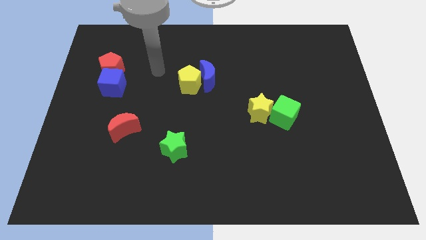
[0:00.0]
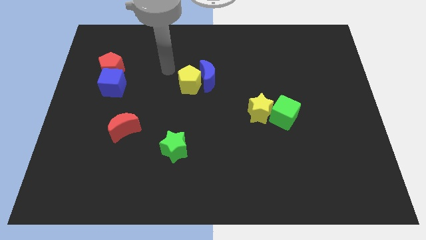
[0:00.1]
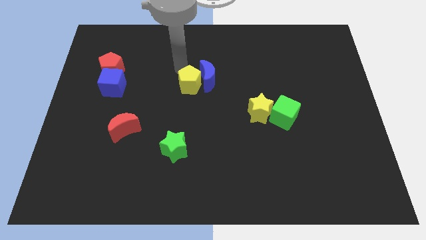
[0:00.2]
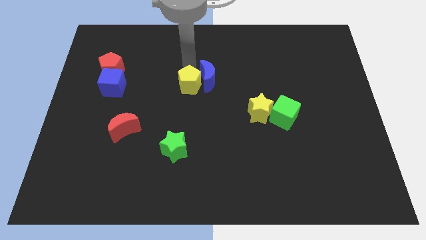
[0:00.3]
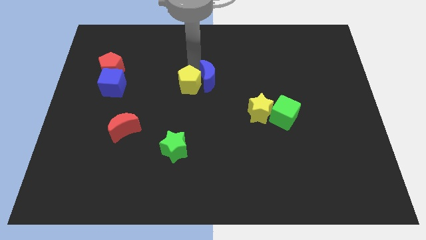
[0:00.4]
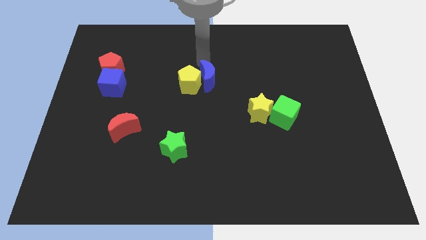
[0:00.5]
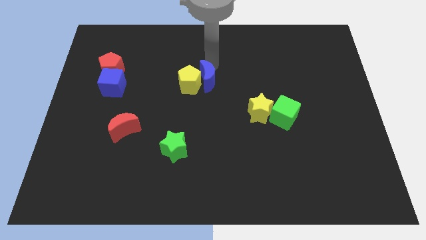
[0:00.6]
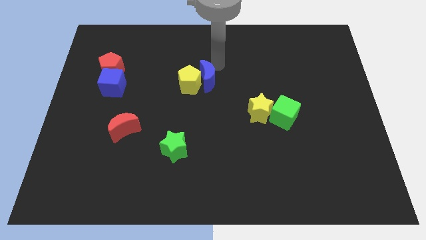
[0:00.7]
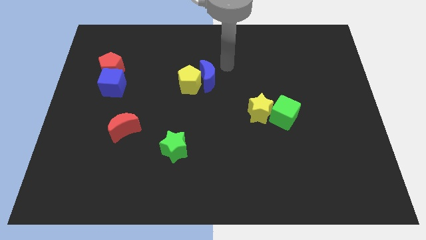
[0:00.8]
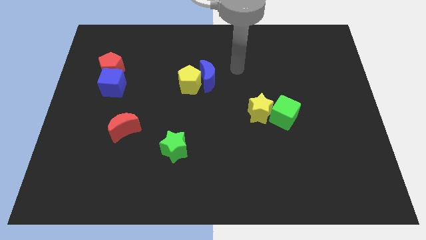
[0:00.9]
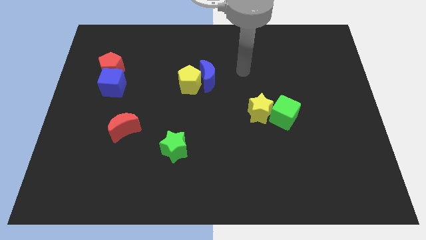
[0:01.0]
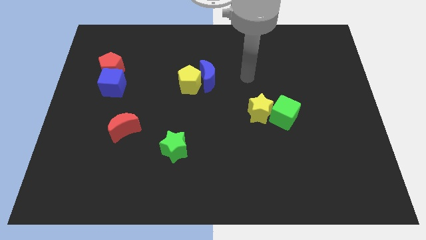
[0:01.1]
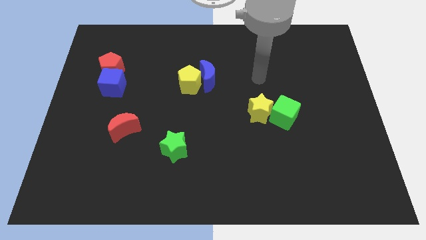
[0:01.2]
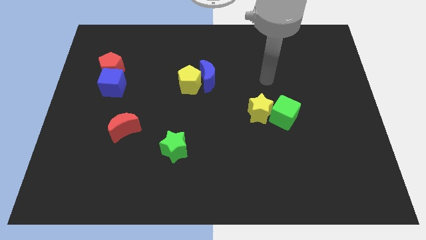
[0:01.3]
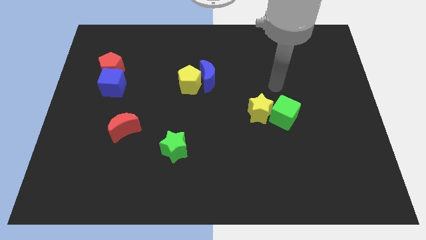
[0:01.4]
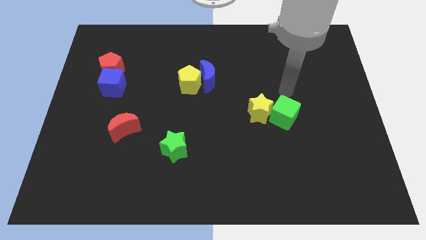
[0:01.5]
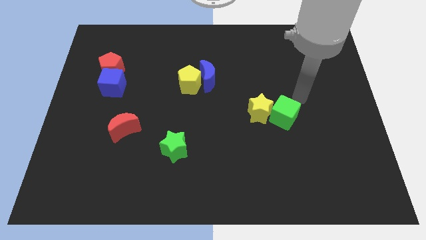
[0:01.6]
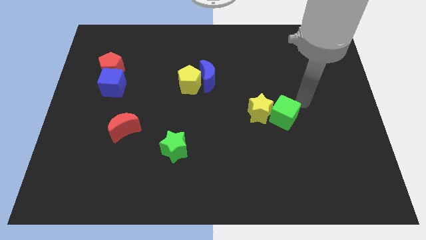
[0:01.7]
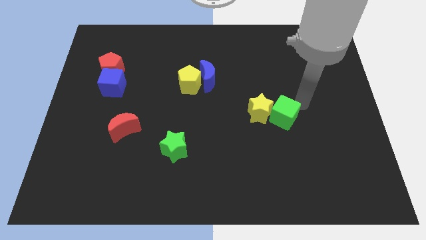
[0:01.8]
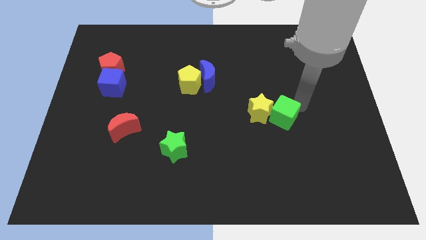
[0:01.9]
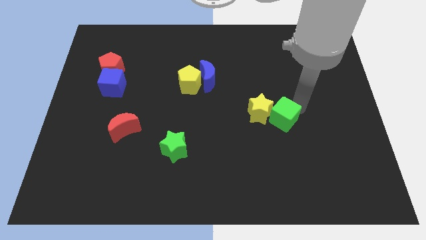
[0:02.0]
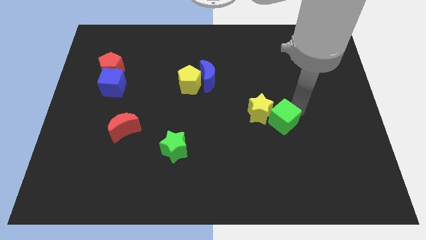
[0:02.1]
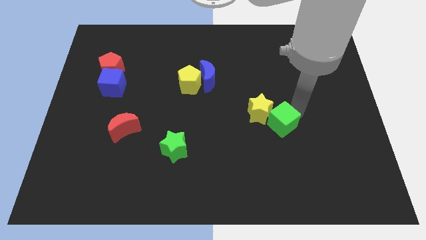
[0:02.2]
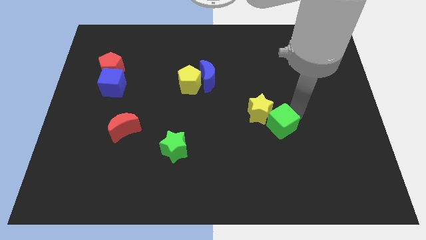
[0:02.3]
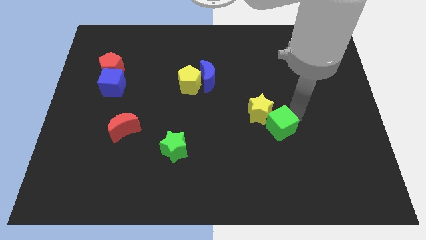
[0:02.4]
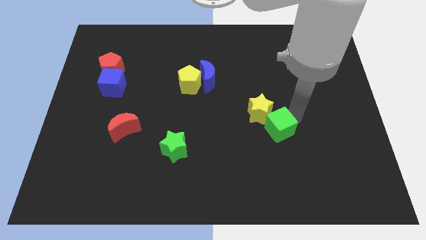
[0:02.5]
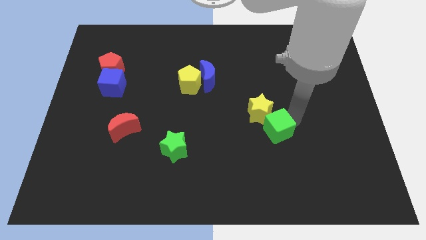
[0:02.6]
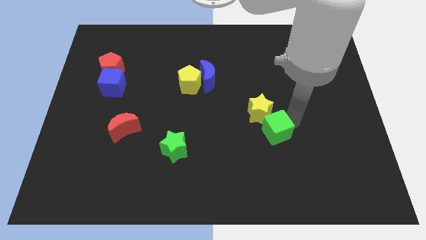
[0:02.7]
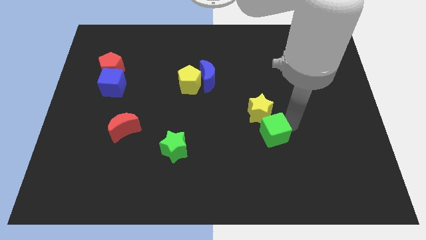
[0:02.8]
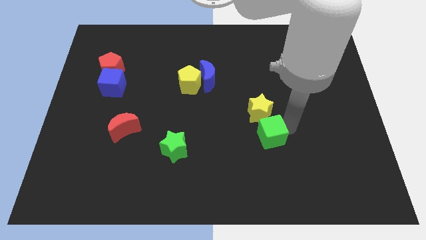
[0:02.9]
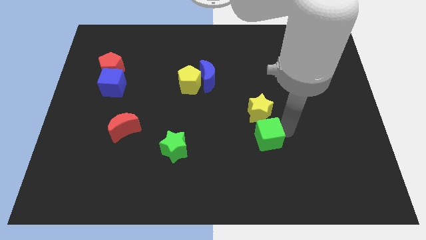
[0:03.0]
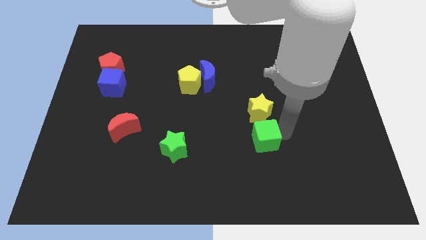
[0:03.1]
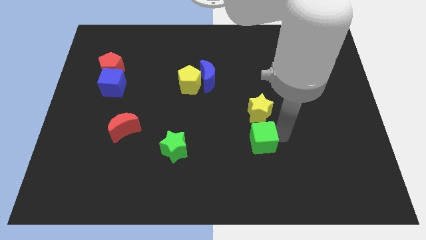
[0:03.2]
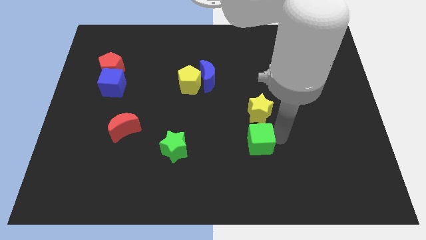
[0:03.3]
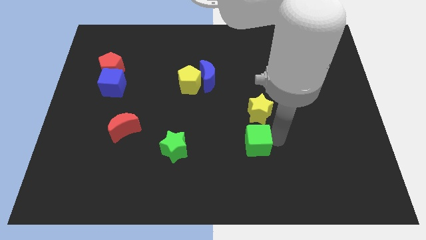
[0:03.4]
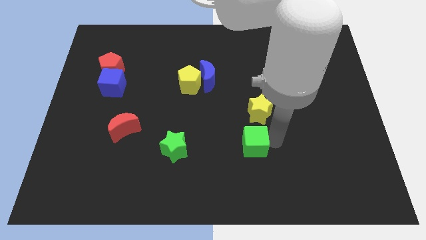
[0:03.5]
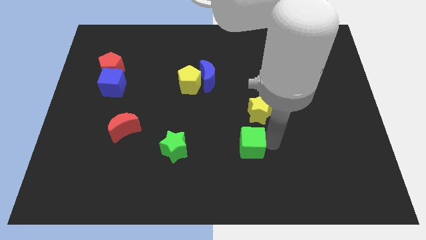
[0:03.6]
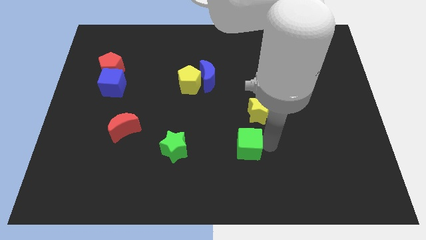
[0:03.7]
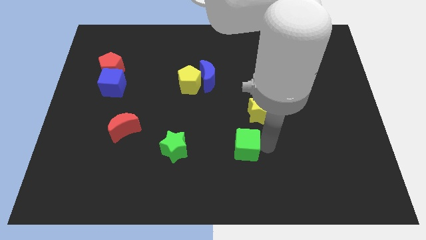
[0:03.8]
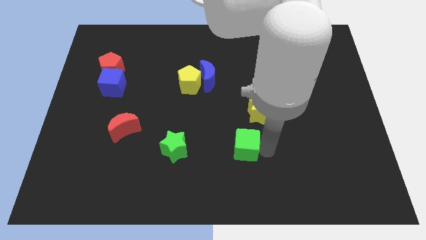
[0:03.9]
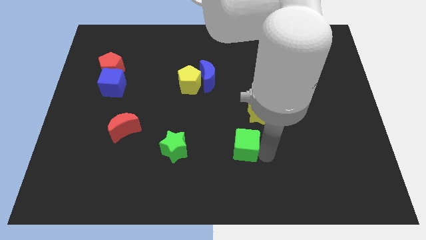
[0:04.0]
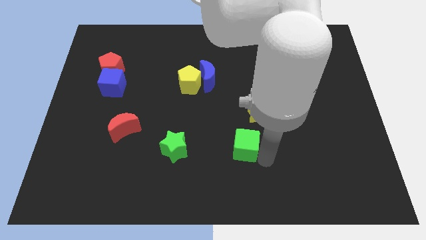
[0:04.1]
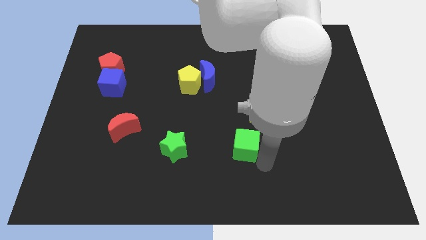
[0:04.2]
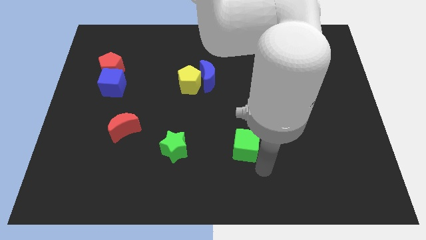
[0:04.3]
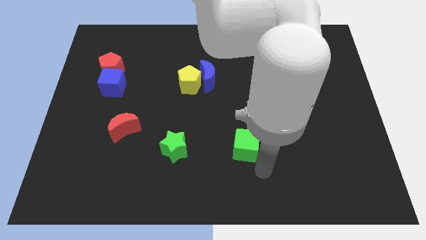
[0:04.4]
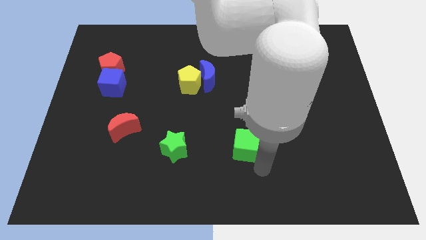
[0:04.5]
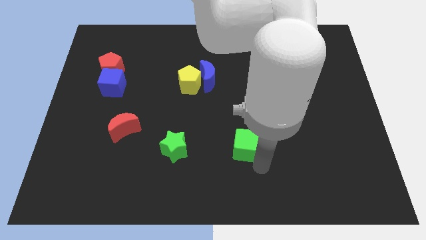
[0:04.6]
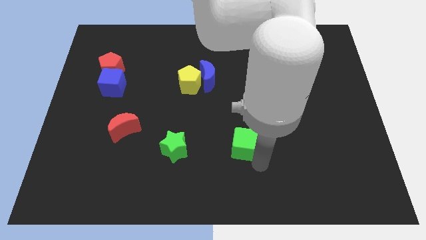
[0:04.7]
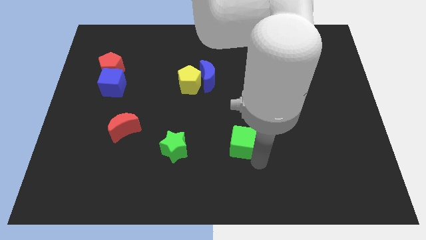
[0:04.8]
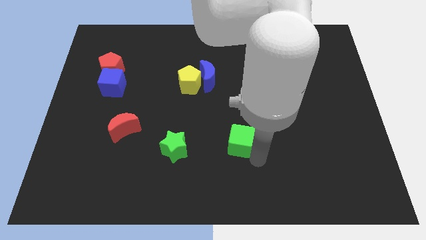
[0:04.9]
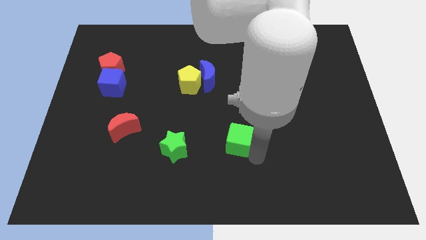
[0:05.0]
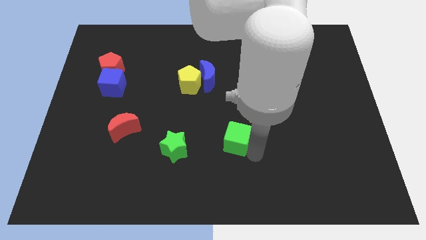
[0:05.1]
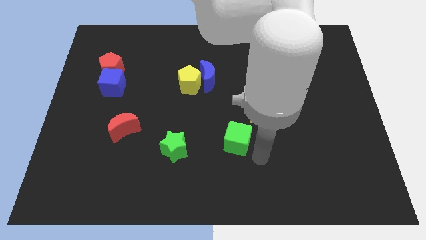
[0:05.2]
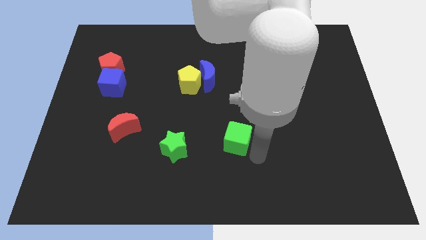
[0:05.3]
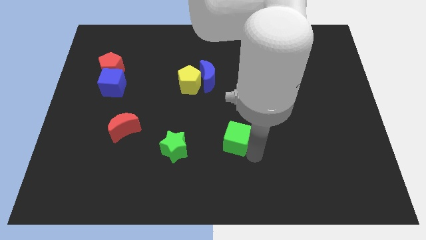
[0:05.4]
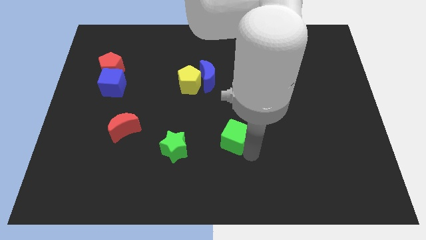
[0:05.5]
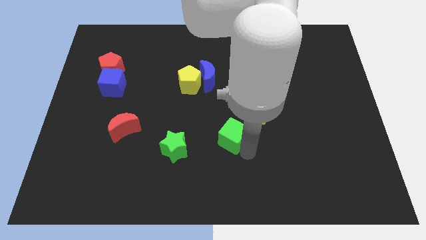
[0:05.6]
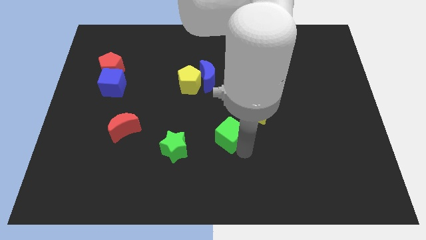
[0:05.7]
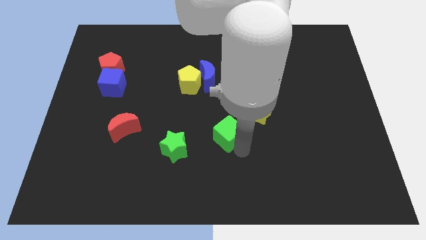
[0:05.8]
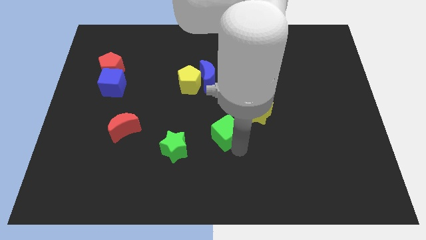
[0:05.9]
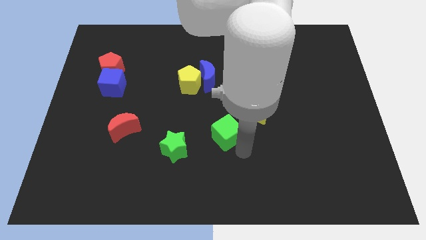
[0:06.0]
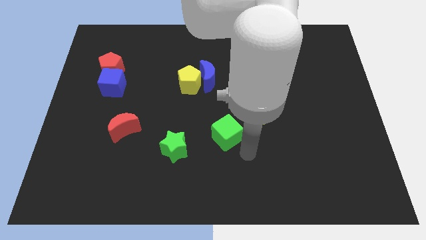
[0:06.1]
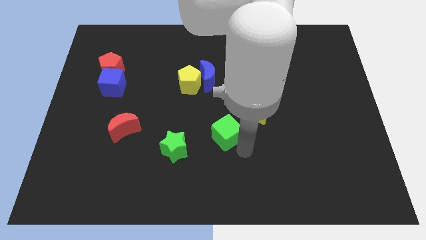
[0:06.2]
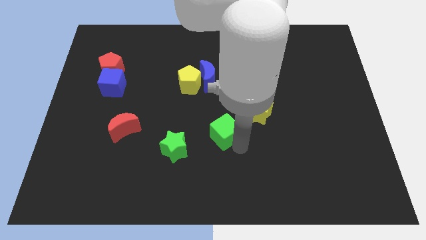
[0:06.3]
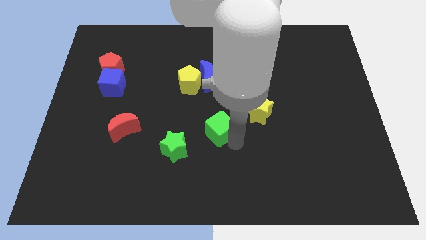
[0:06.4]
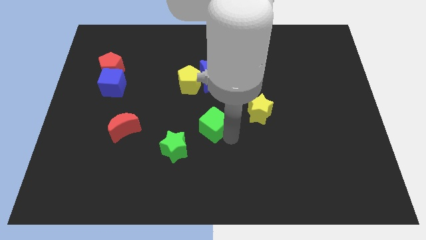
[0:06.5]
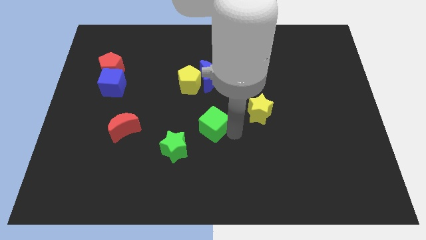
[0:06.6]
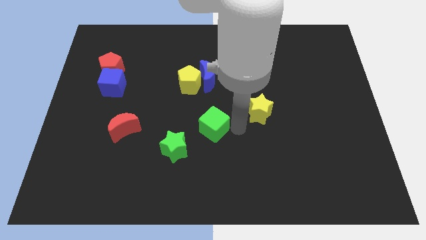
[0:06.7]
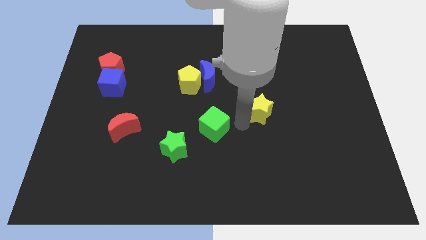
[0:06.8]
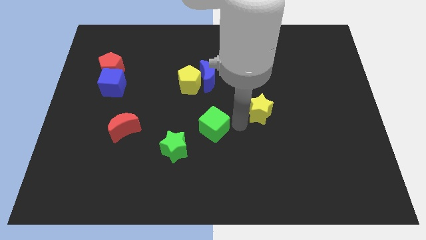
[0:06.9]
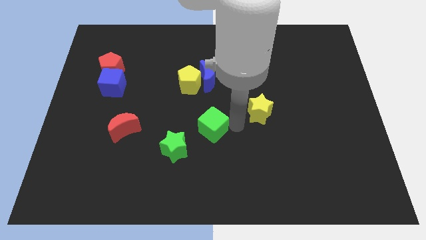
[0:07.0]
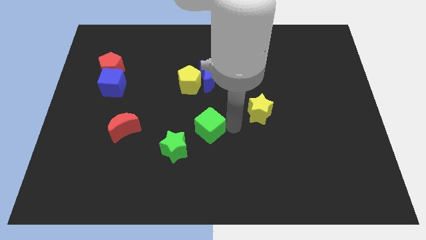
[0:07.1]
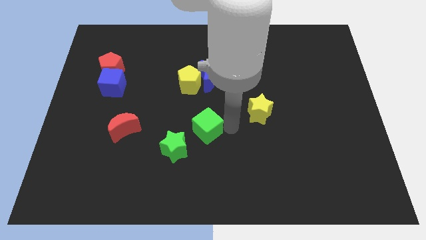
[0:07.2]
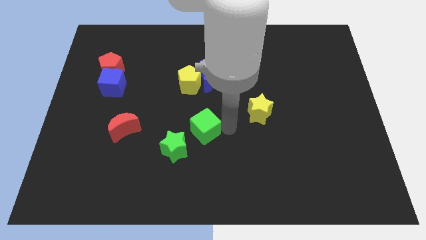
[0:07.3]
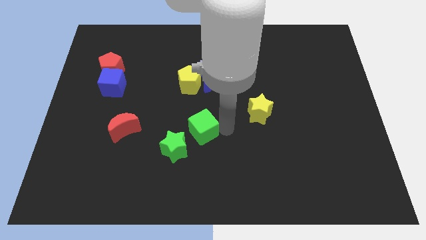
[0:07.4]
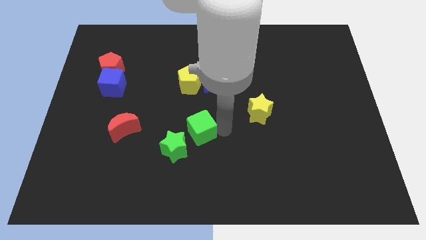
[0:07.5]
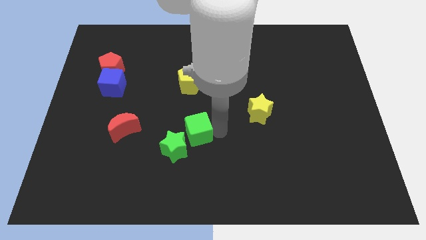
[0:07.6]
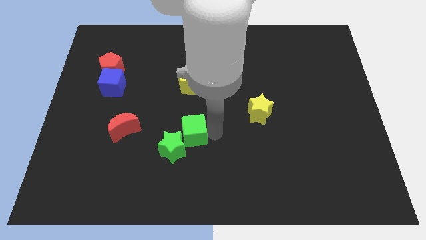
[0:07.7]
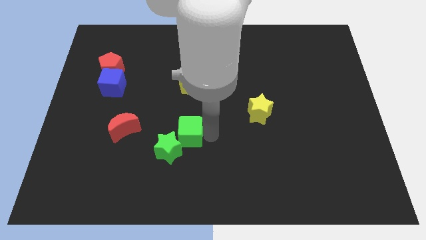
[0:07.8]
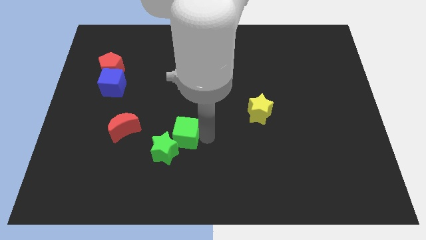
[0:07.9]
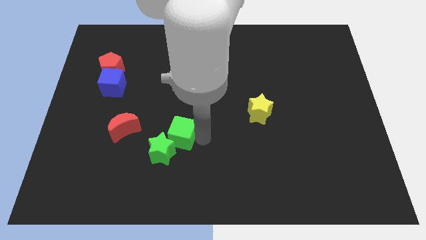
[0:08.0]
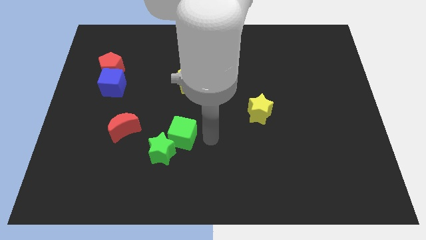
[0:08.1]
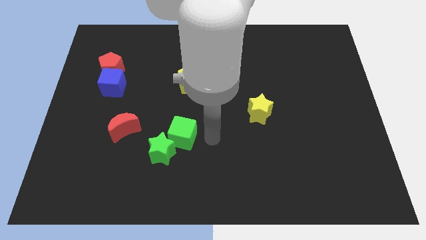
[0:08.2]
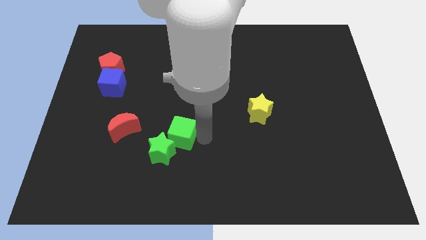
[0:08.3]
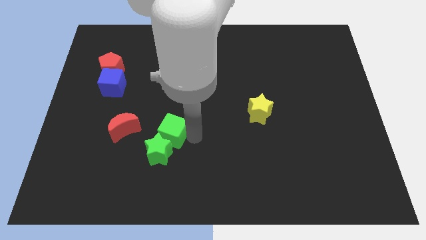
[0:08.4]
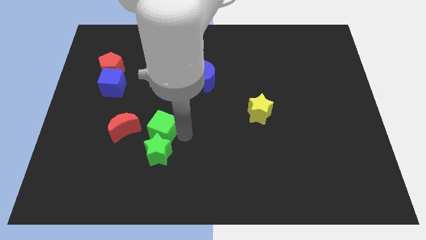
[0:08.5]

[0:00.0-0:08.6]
put the green cube to the top left of the green star
